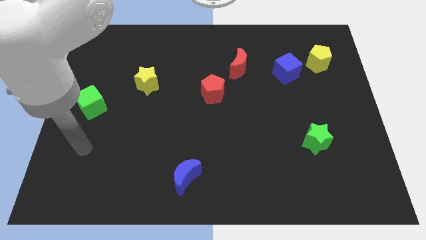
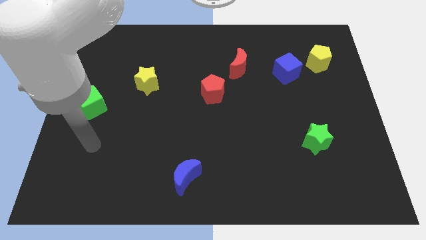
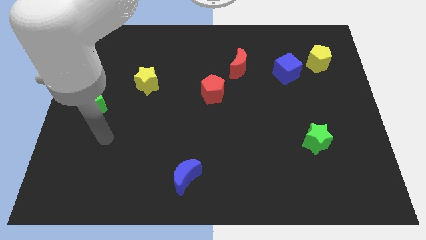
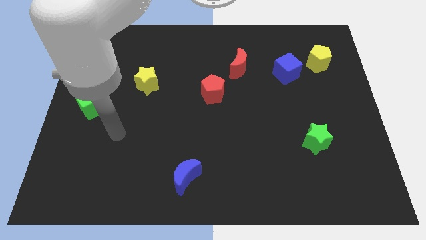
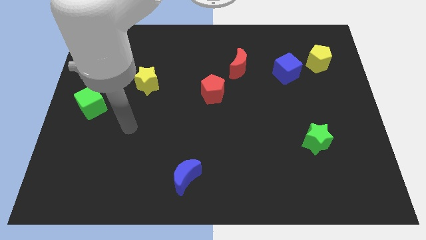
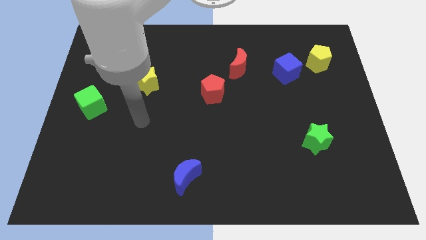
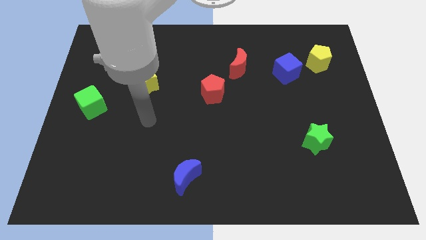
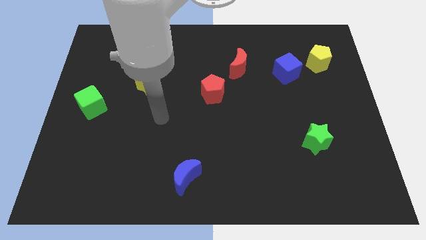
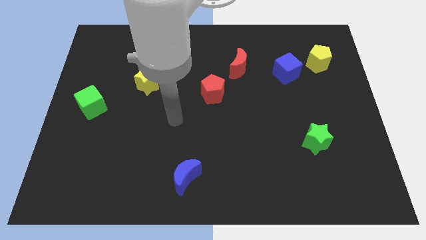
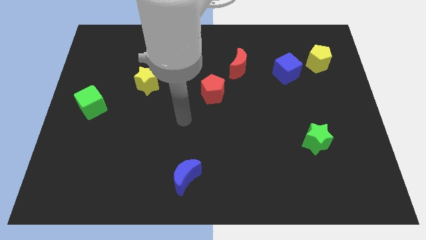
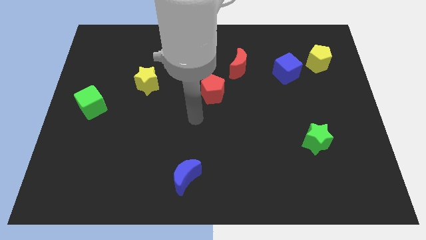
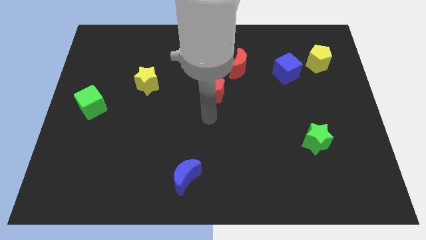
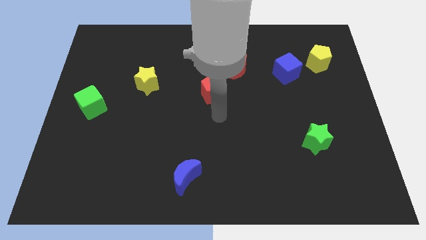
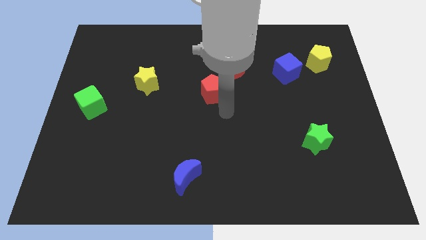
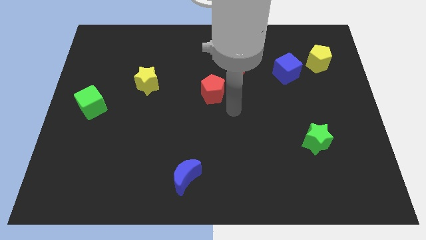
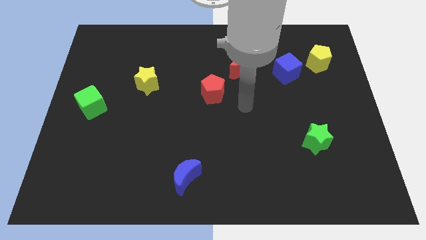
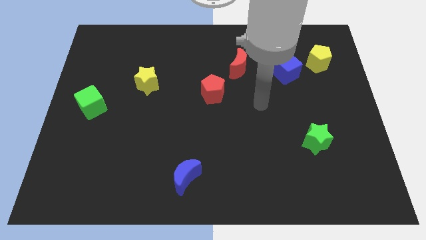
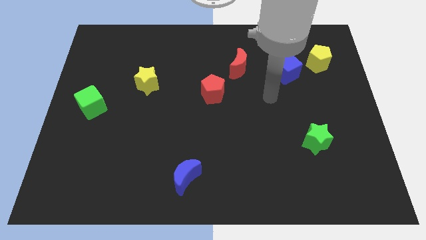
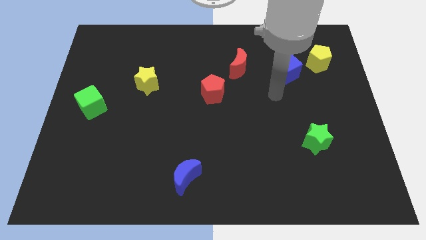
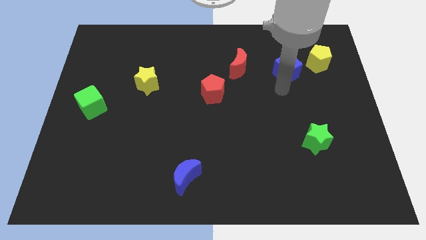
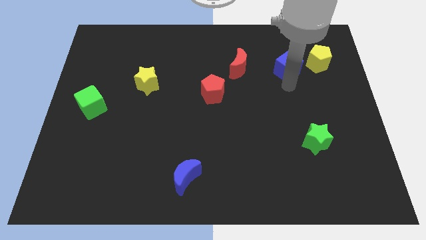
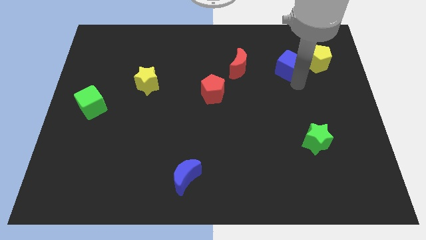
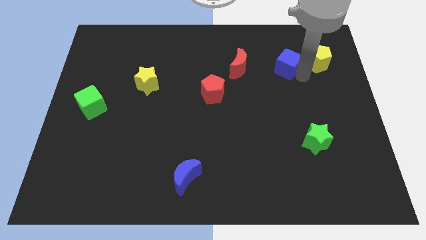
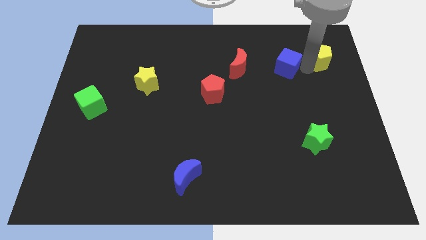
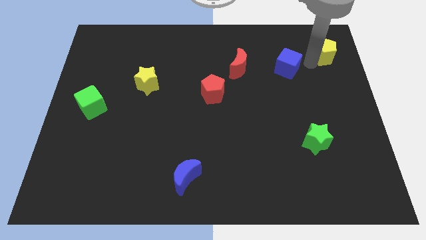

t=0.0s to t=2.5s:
pull the blue cube apart from the yellow pentagon

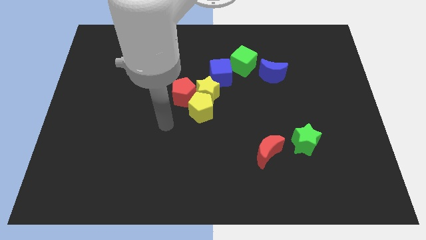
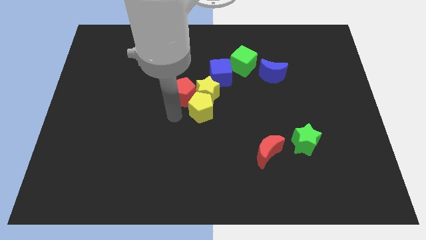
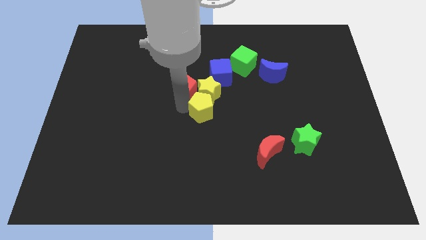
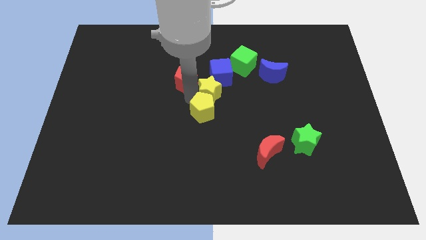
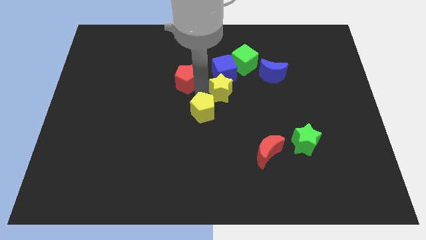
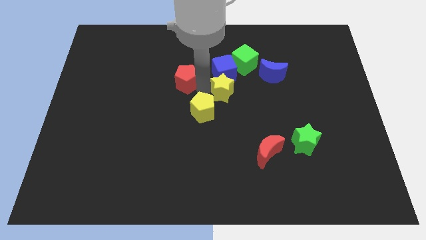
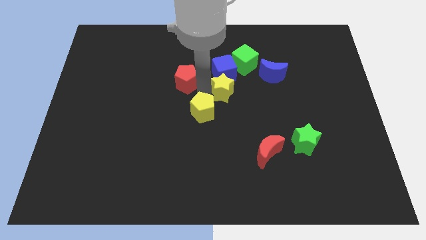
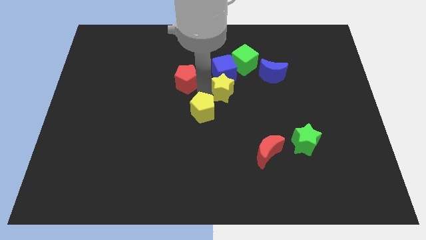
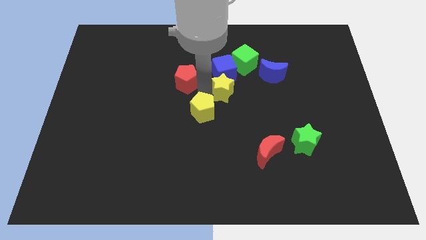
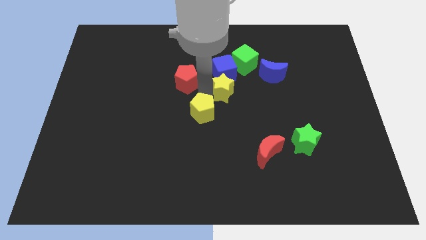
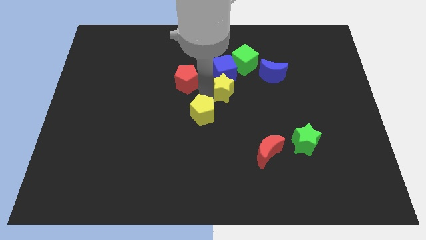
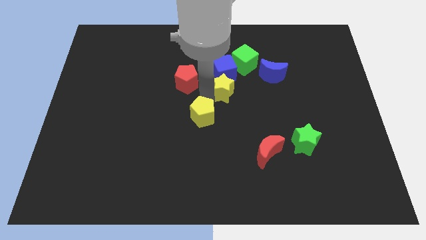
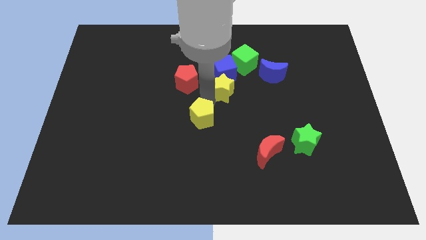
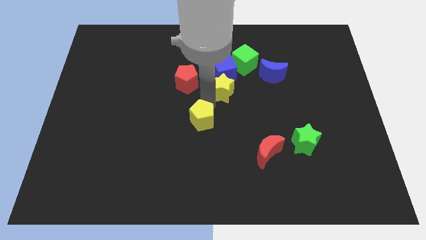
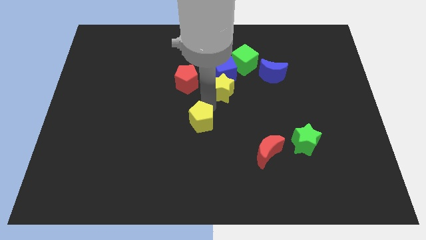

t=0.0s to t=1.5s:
separate the yellow pentagon from the yellow star and red pentagon

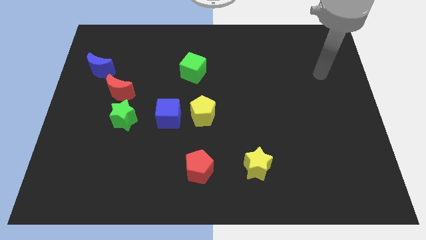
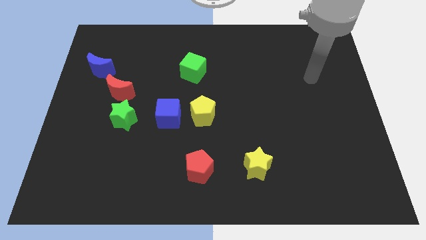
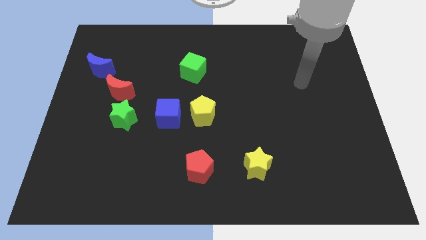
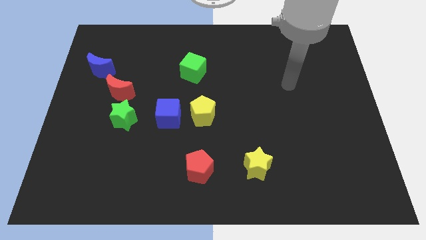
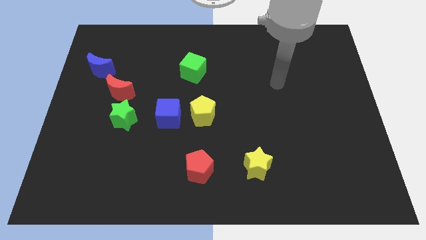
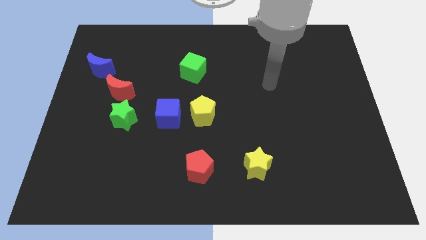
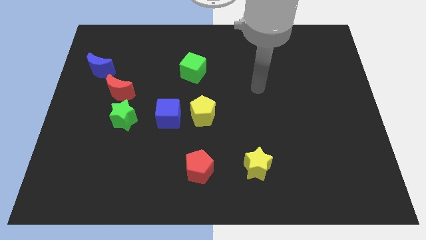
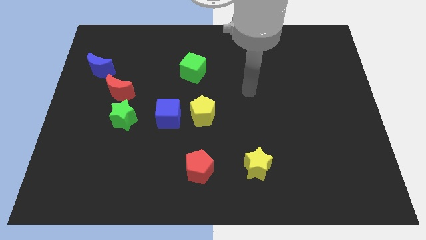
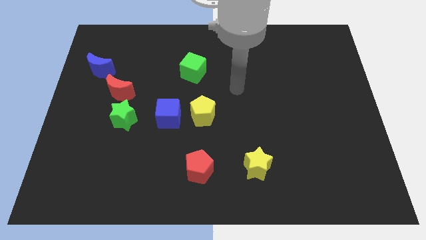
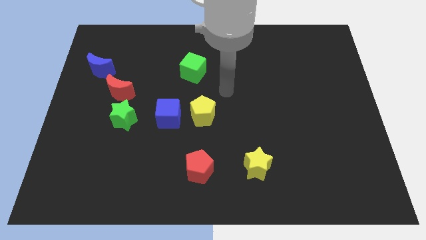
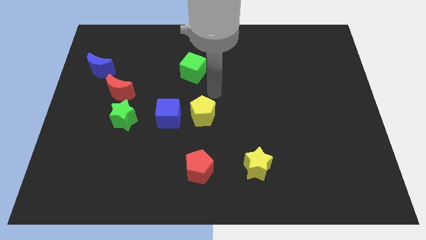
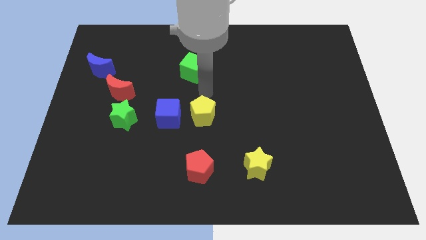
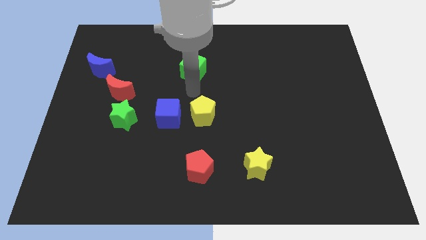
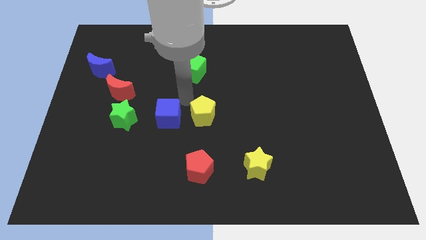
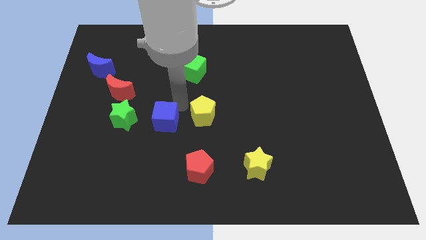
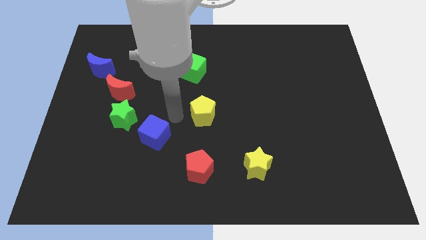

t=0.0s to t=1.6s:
move the yellow pentagon away from the blue cube

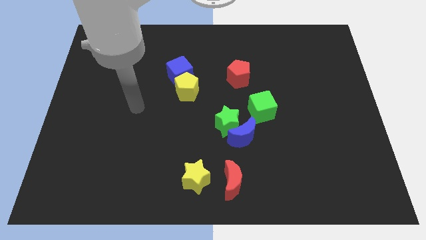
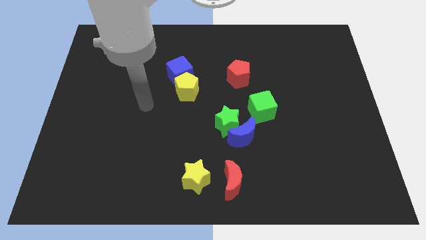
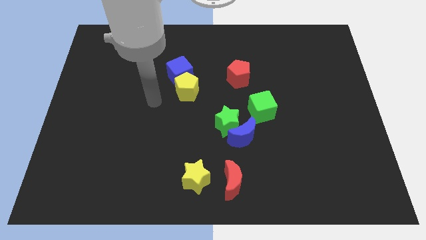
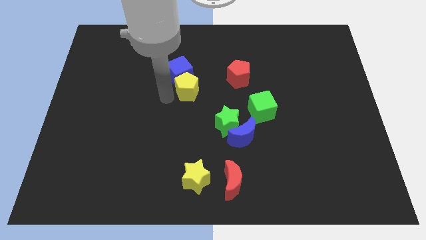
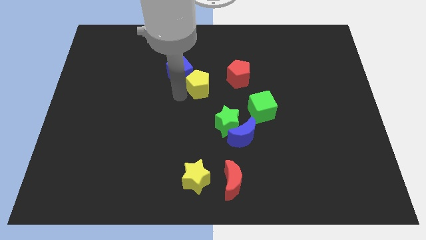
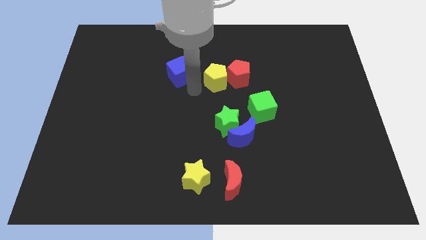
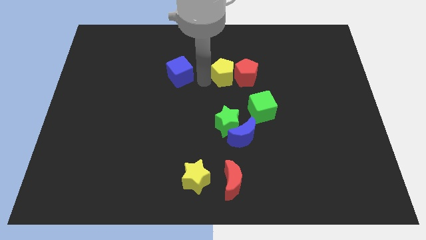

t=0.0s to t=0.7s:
separate the blue cube from the yellow pentagon

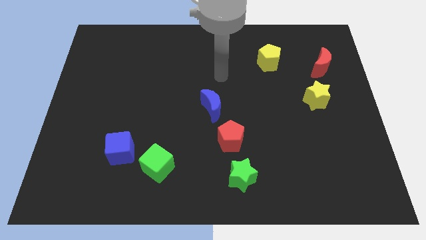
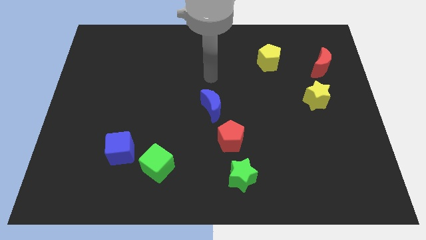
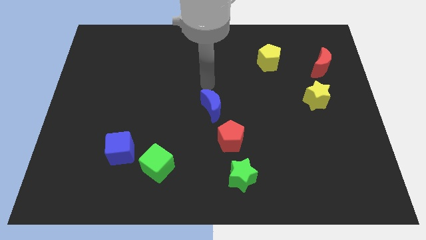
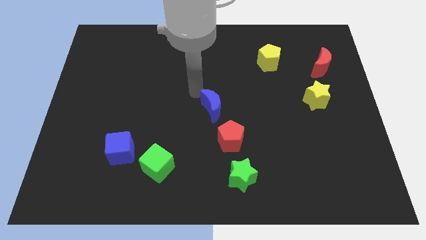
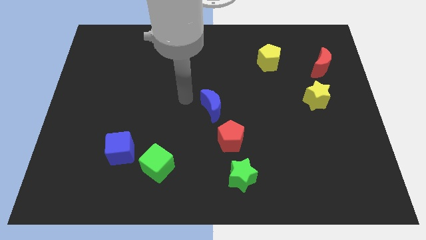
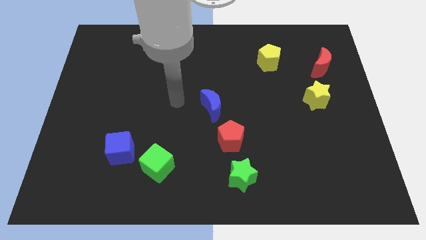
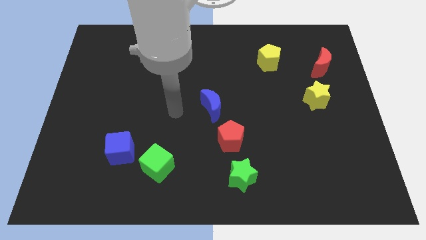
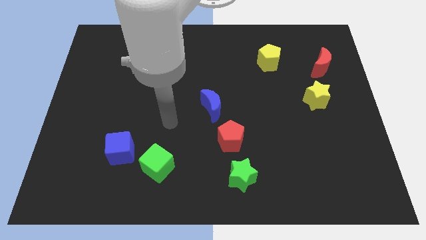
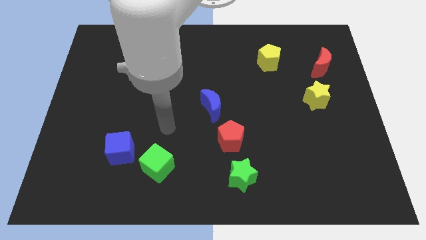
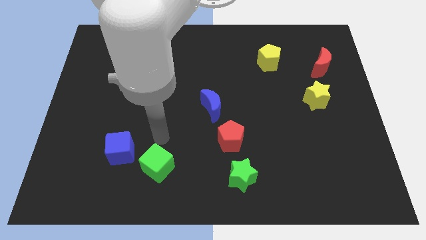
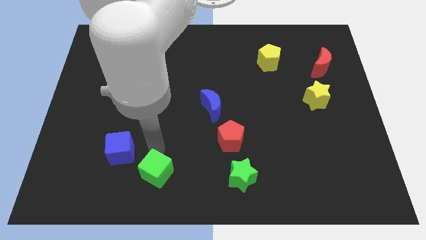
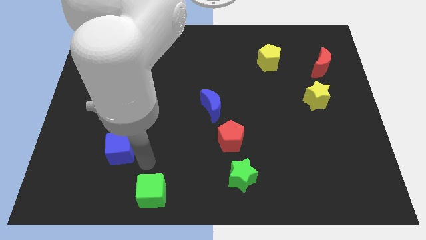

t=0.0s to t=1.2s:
move the blue cube away from the green cube

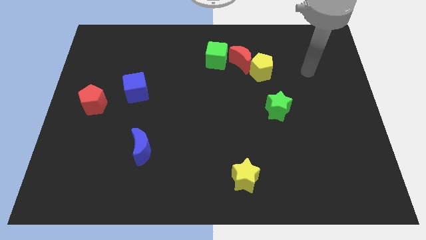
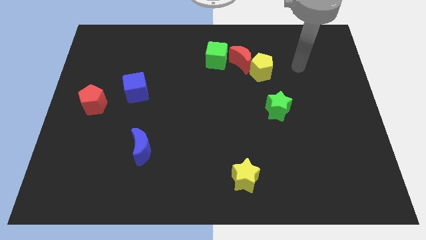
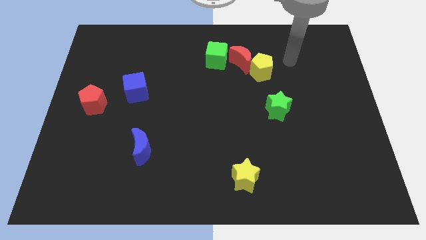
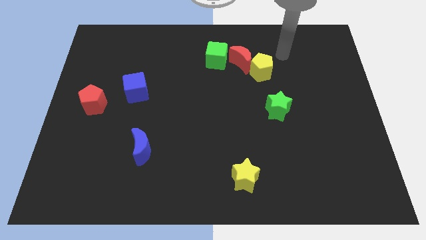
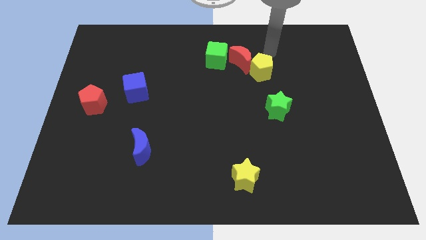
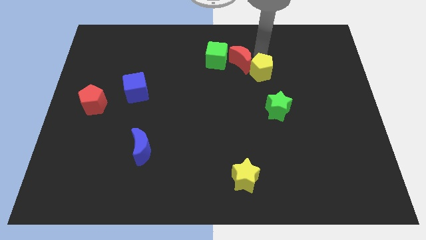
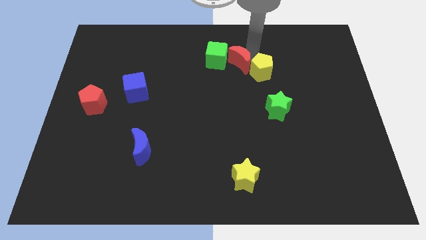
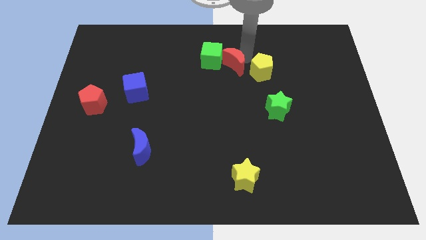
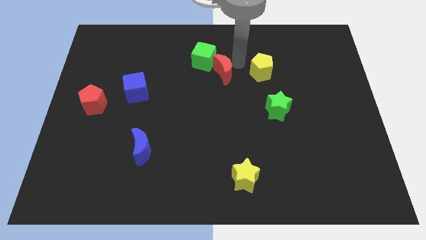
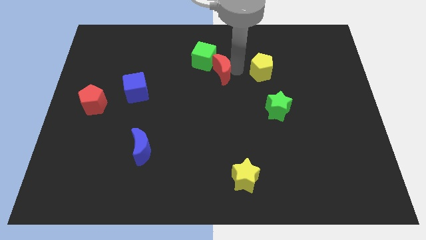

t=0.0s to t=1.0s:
separate the yellow pentagon from the red moon

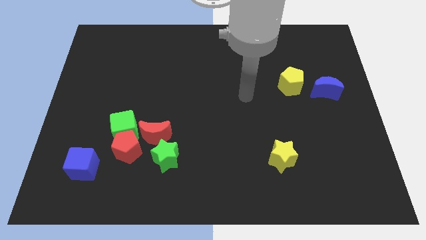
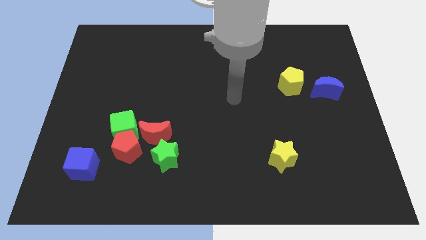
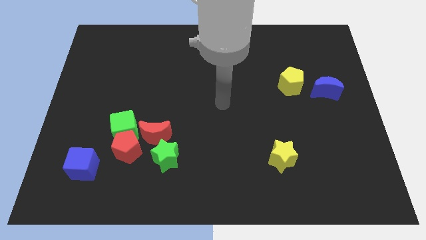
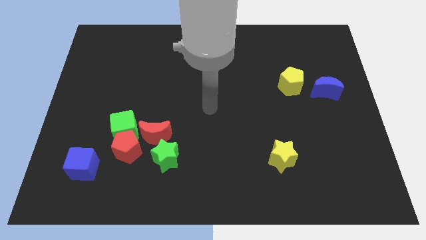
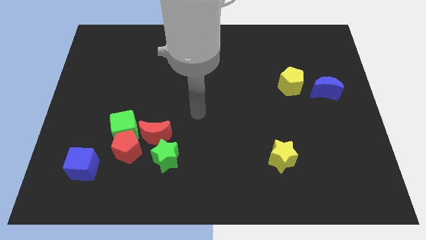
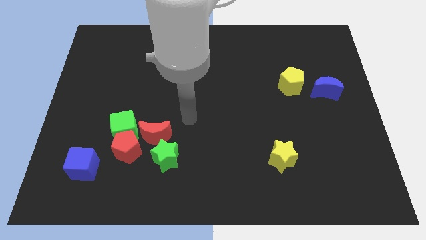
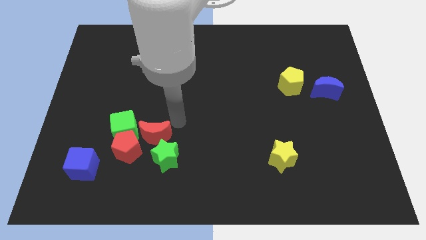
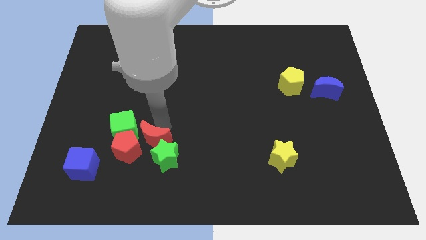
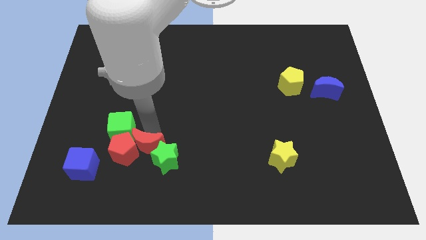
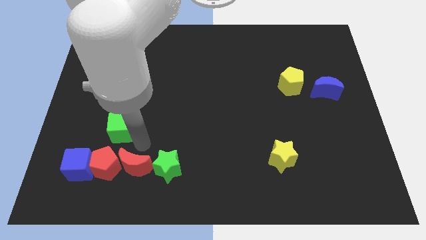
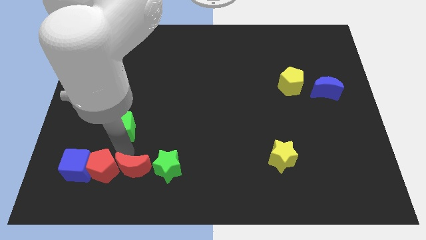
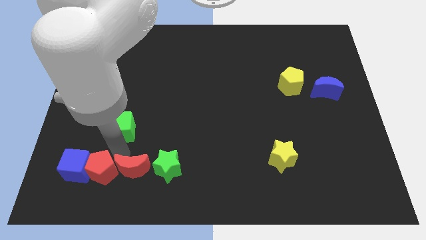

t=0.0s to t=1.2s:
separate the green cube from the red pentagon and red moon
